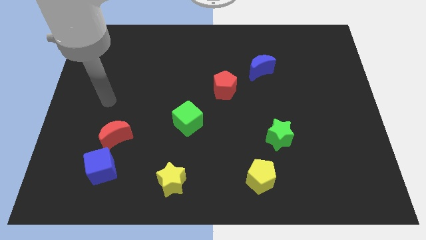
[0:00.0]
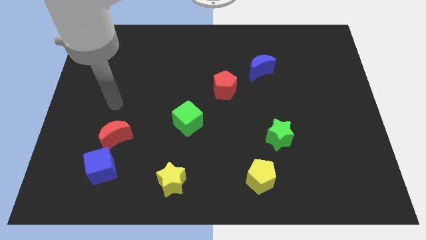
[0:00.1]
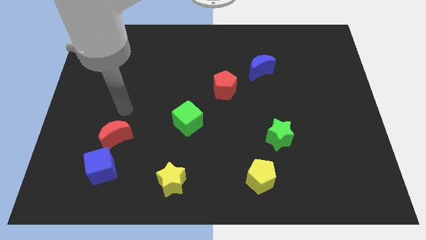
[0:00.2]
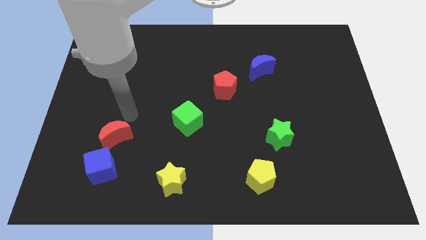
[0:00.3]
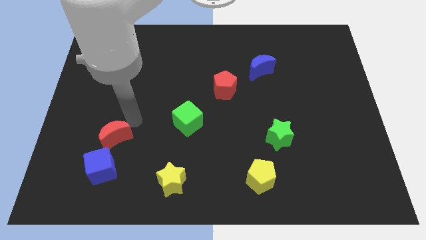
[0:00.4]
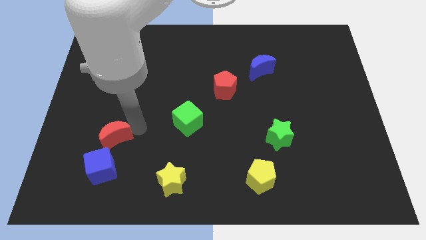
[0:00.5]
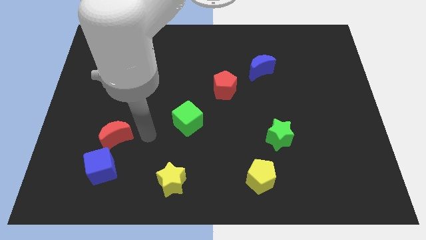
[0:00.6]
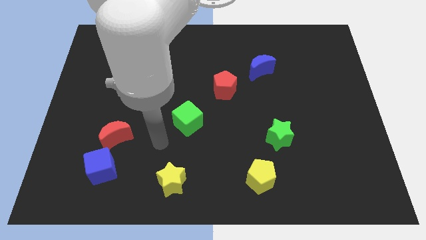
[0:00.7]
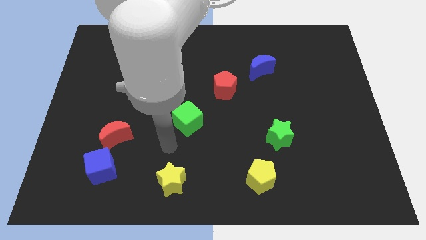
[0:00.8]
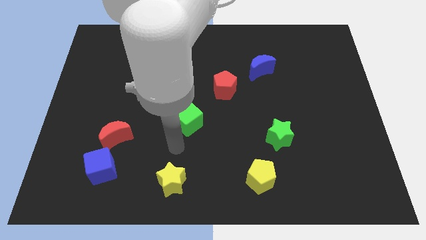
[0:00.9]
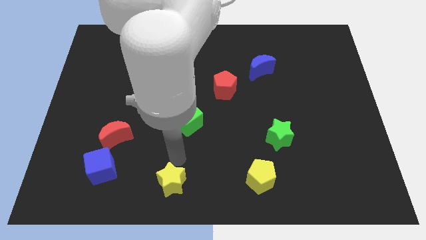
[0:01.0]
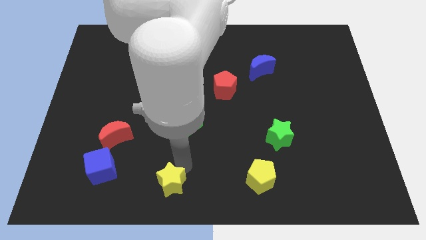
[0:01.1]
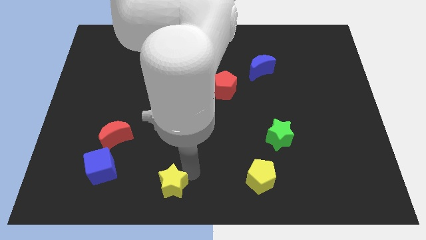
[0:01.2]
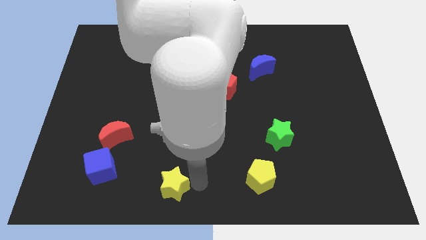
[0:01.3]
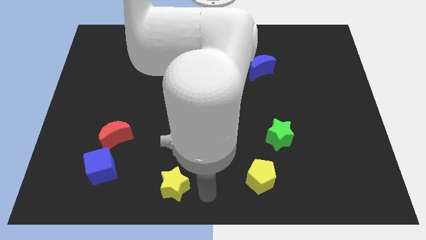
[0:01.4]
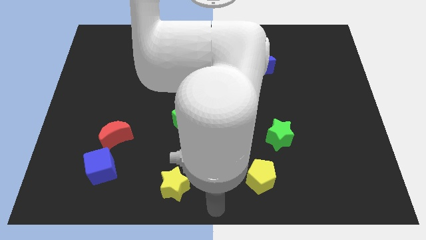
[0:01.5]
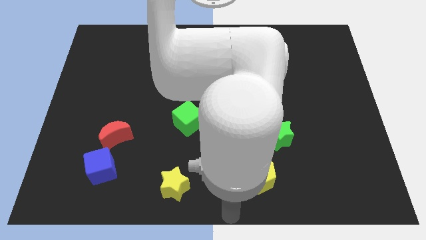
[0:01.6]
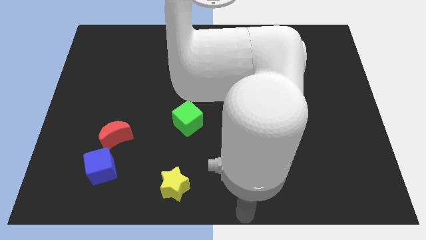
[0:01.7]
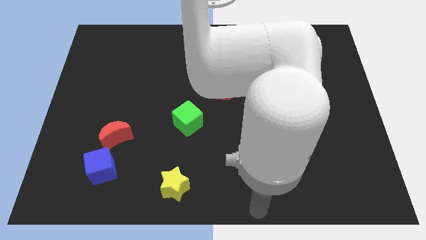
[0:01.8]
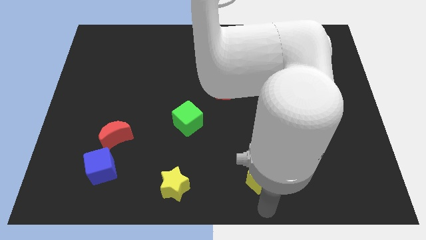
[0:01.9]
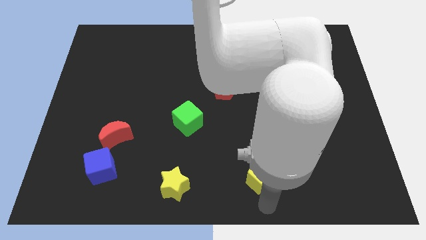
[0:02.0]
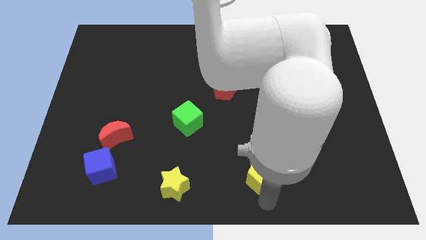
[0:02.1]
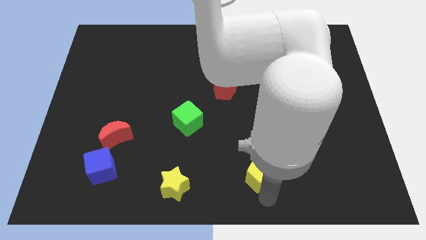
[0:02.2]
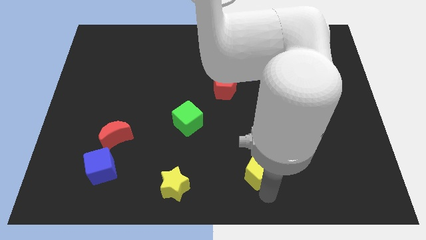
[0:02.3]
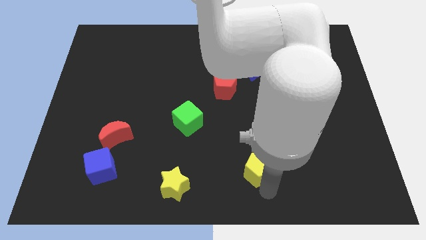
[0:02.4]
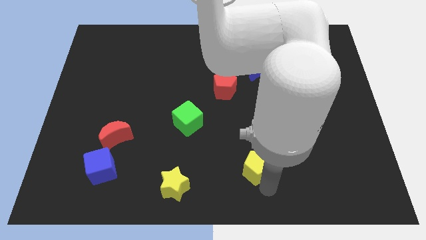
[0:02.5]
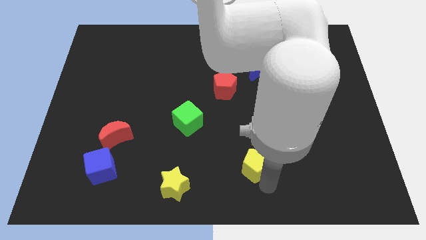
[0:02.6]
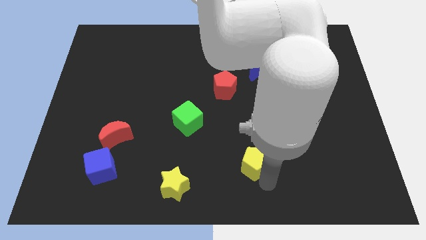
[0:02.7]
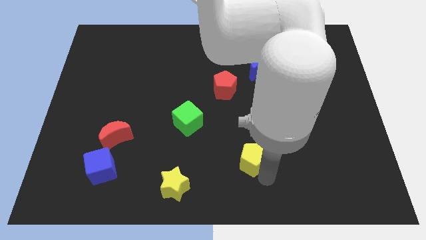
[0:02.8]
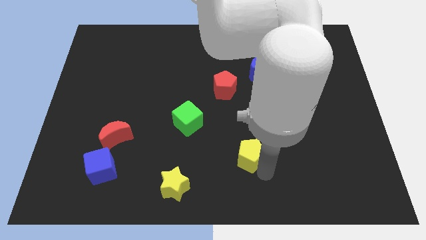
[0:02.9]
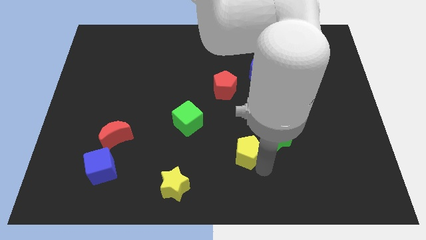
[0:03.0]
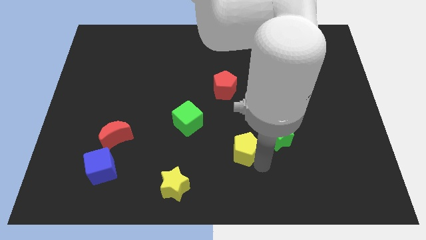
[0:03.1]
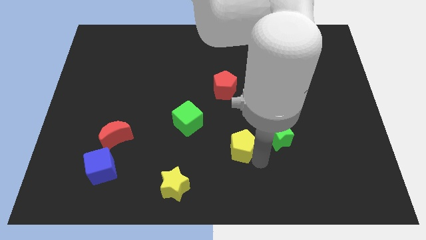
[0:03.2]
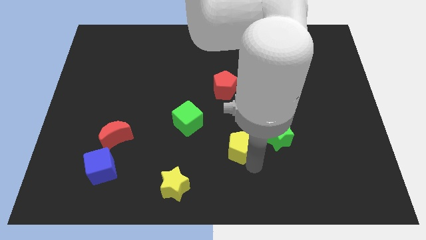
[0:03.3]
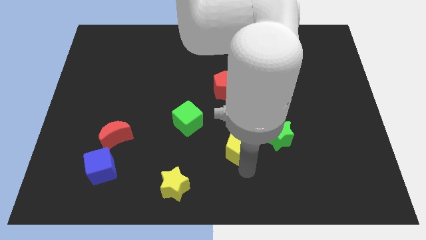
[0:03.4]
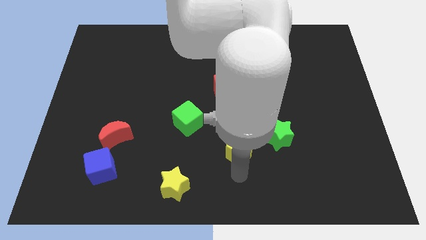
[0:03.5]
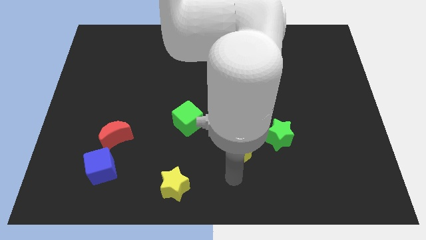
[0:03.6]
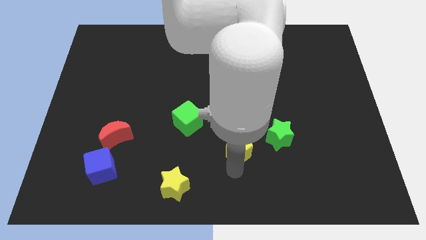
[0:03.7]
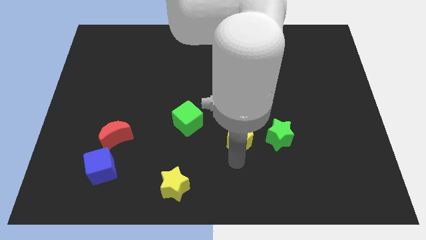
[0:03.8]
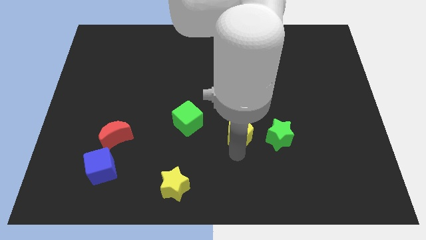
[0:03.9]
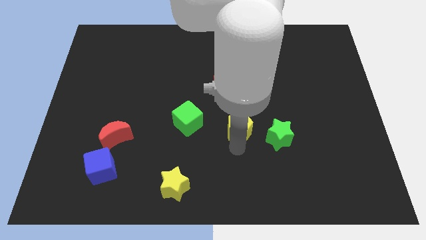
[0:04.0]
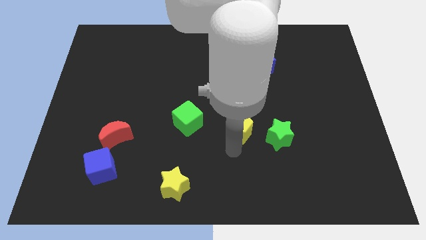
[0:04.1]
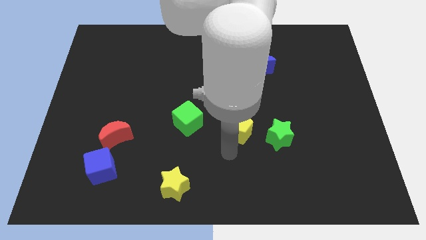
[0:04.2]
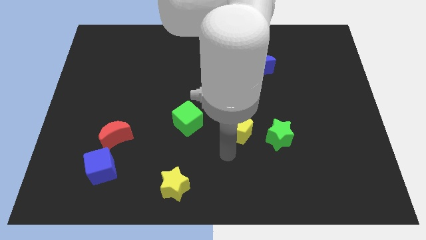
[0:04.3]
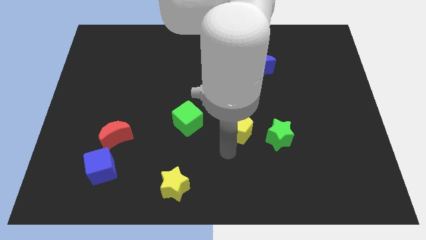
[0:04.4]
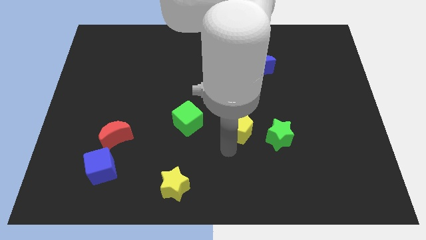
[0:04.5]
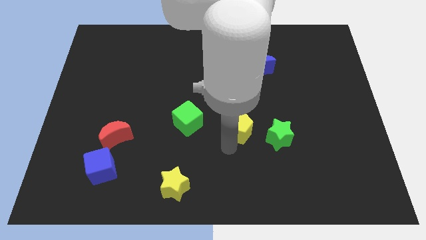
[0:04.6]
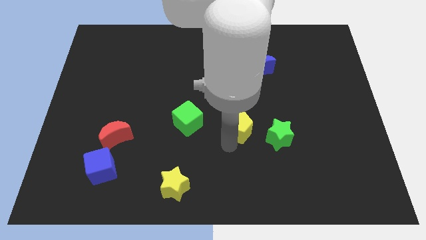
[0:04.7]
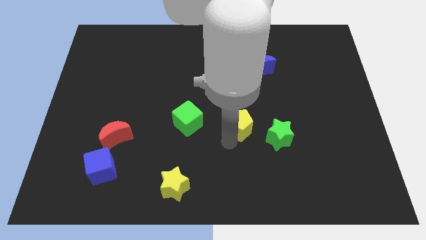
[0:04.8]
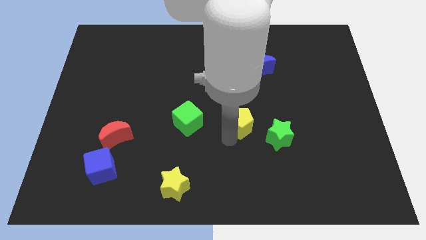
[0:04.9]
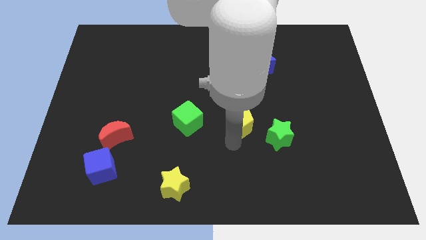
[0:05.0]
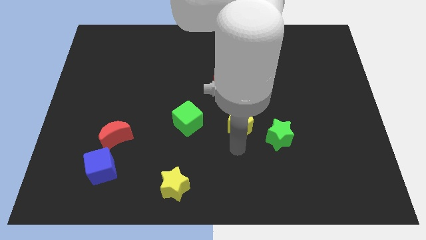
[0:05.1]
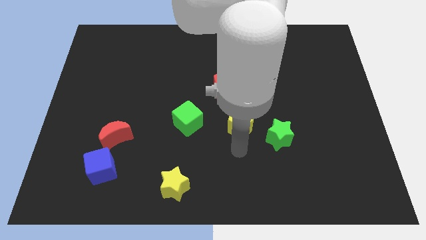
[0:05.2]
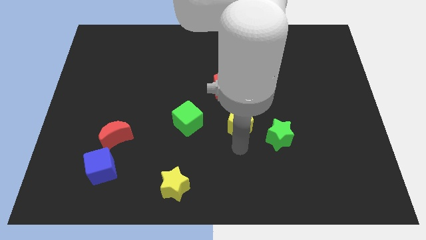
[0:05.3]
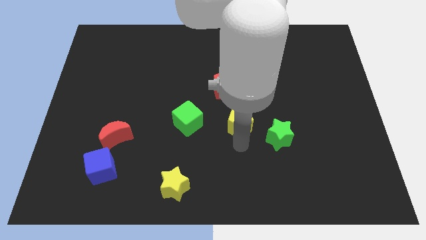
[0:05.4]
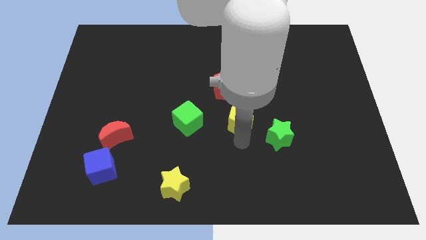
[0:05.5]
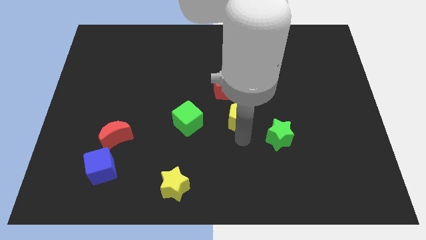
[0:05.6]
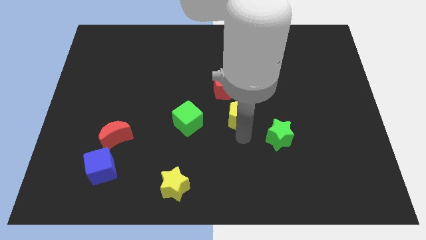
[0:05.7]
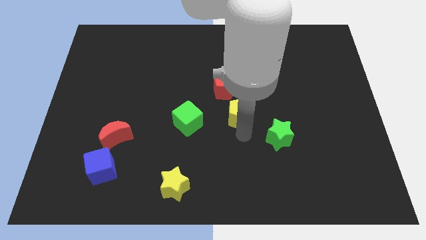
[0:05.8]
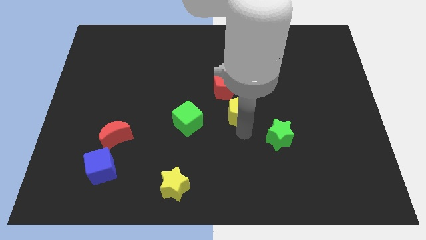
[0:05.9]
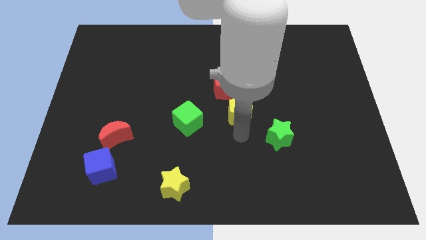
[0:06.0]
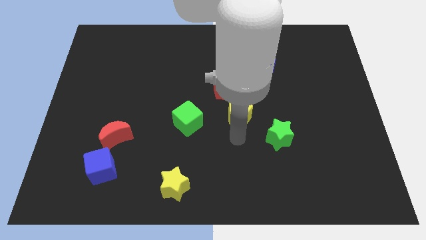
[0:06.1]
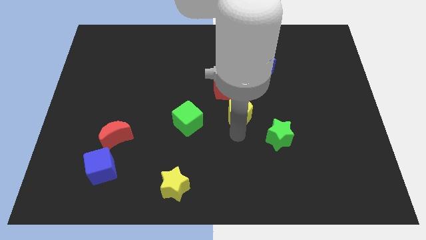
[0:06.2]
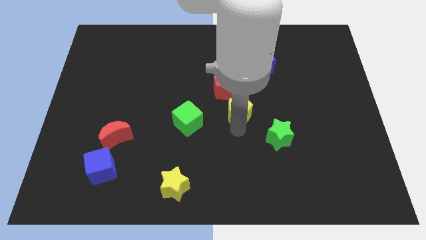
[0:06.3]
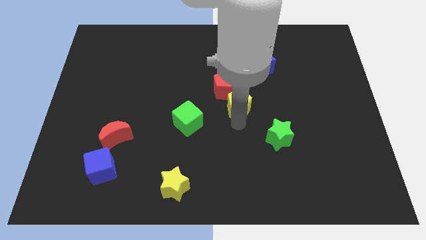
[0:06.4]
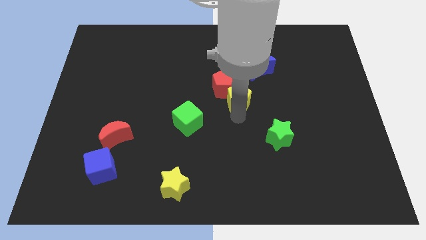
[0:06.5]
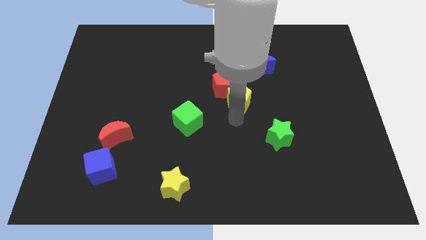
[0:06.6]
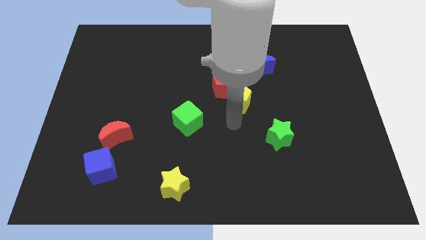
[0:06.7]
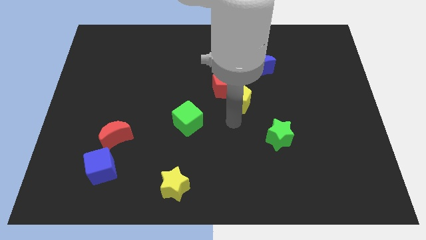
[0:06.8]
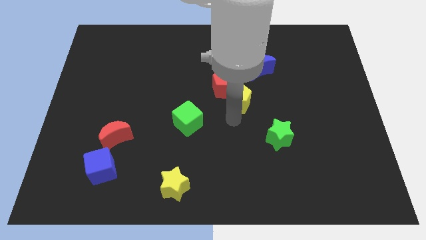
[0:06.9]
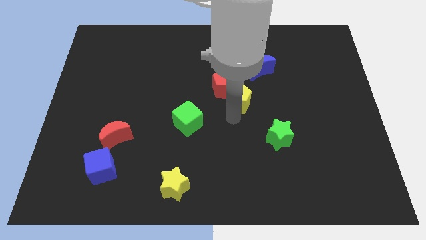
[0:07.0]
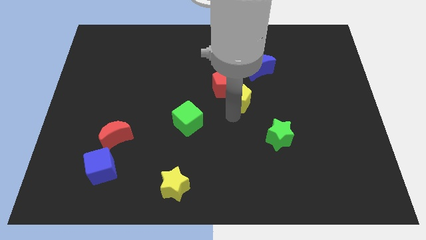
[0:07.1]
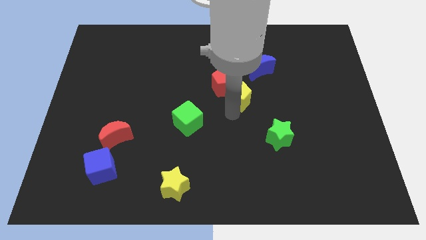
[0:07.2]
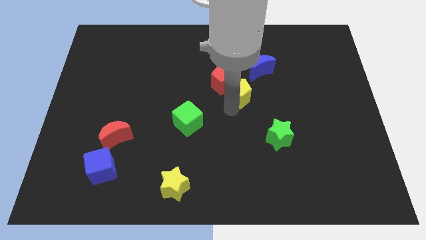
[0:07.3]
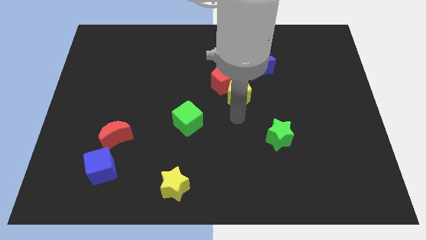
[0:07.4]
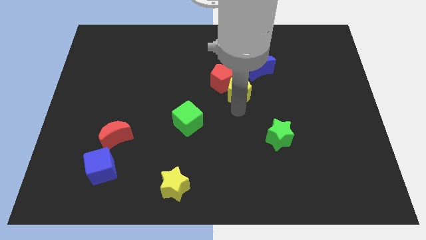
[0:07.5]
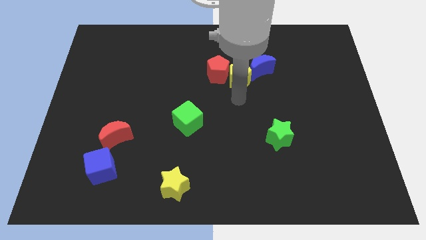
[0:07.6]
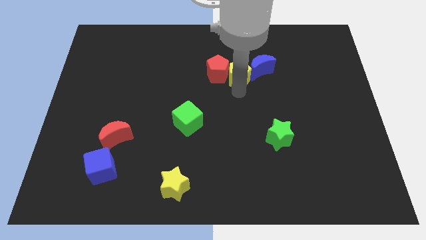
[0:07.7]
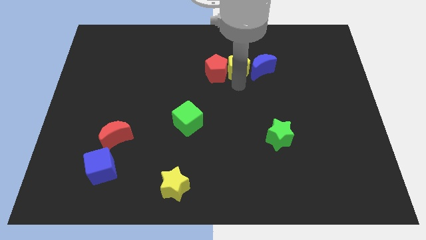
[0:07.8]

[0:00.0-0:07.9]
push the yellow pentagon to the top left of the blue moon
